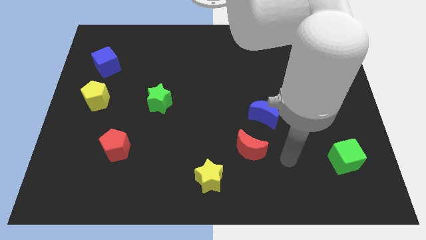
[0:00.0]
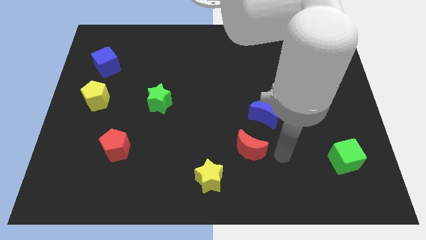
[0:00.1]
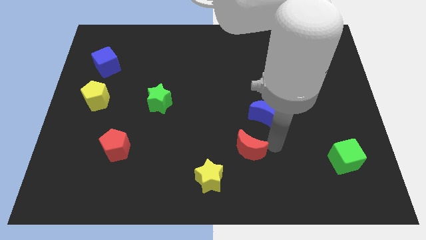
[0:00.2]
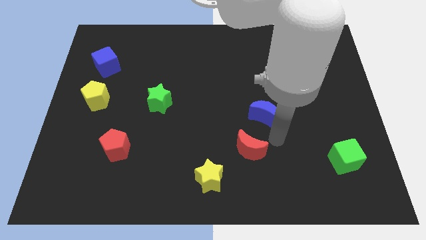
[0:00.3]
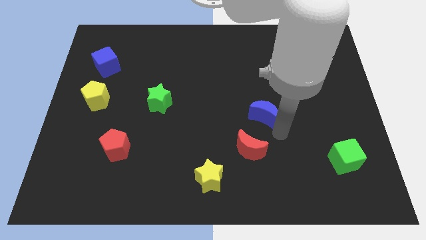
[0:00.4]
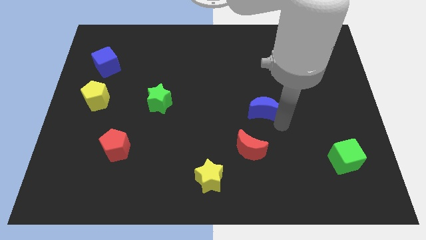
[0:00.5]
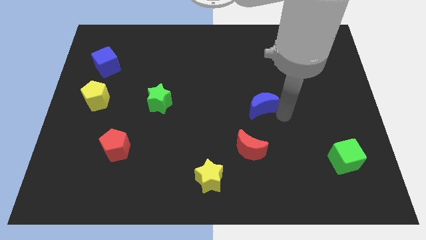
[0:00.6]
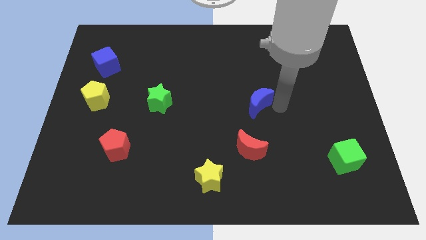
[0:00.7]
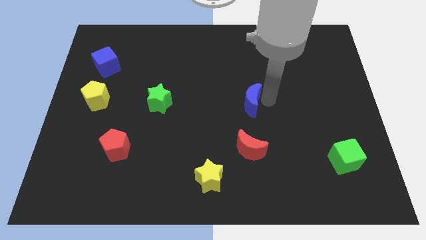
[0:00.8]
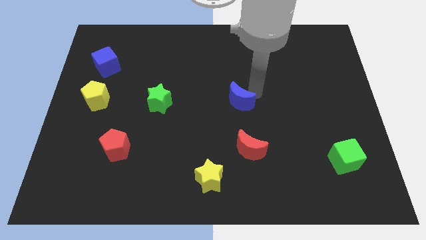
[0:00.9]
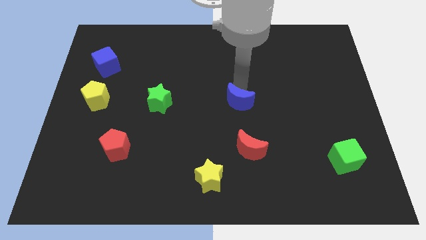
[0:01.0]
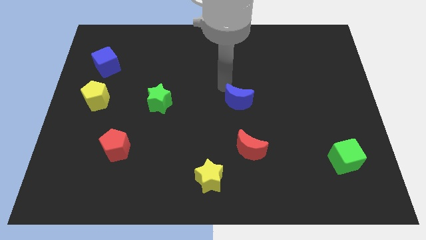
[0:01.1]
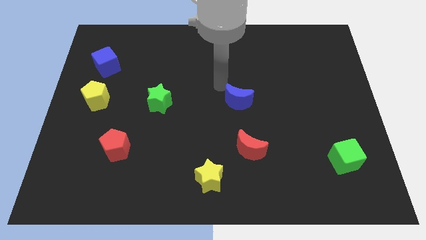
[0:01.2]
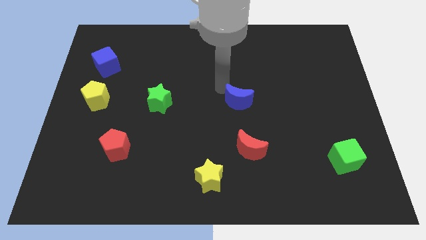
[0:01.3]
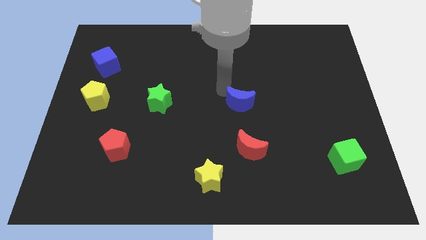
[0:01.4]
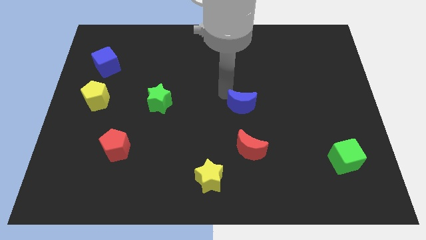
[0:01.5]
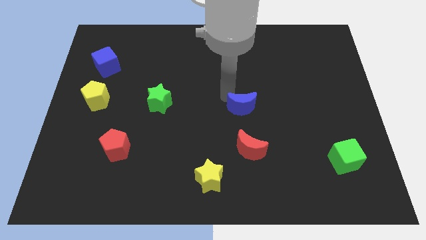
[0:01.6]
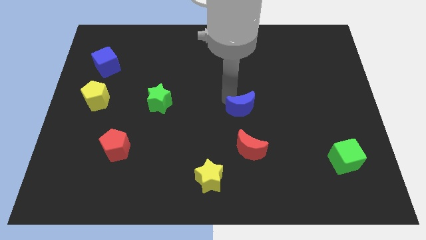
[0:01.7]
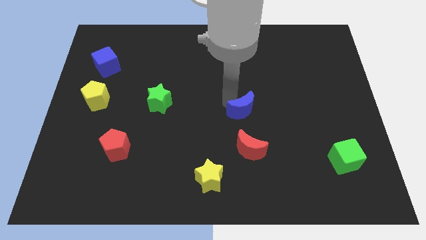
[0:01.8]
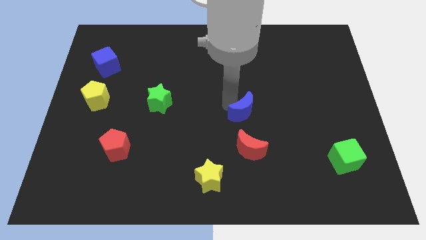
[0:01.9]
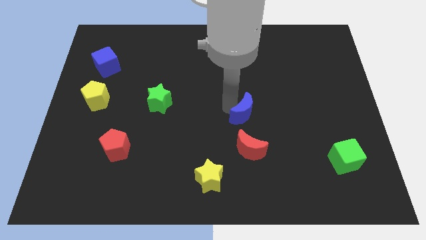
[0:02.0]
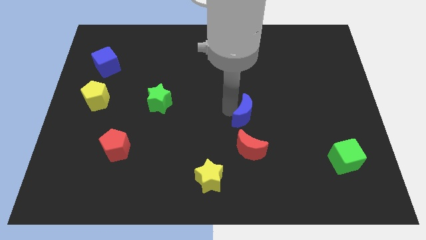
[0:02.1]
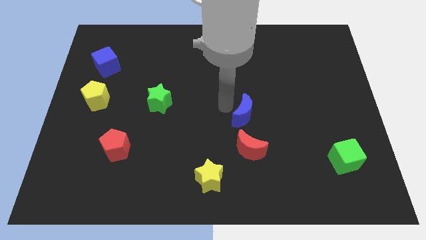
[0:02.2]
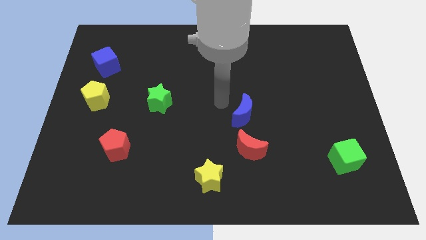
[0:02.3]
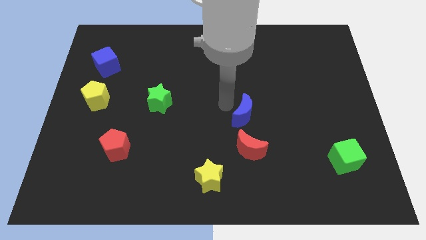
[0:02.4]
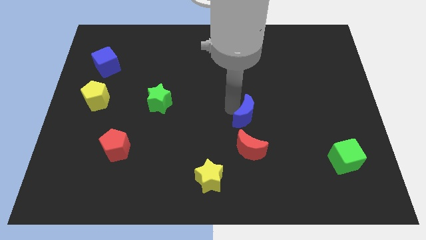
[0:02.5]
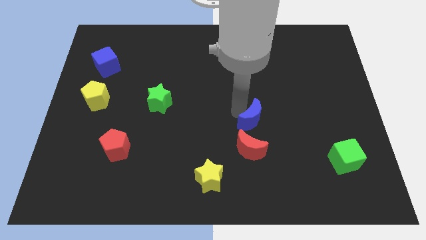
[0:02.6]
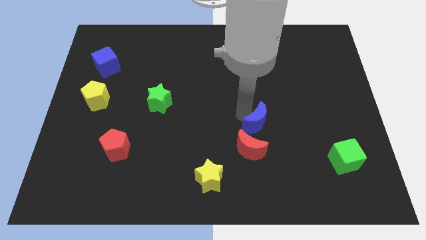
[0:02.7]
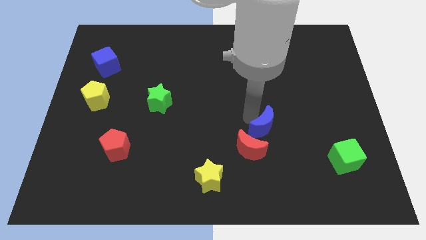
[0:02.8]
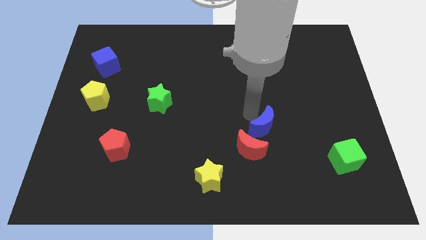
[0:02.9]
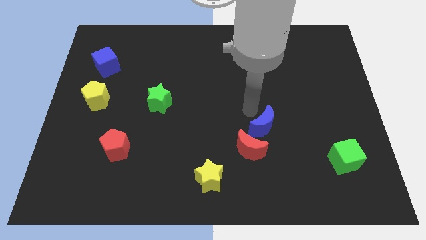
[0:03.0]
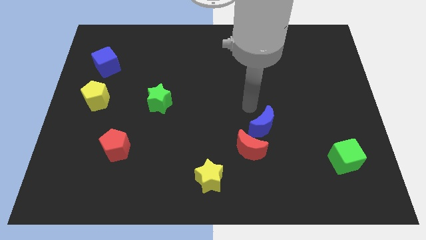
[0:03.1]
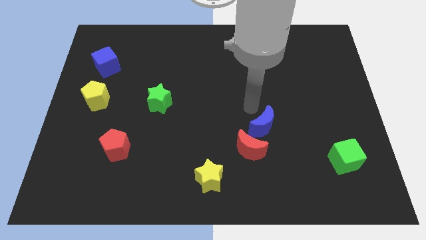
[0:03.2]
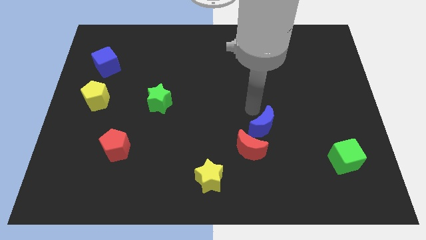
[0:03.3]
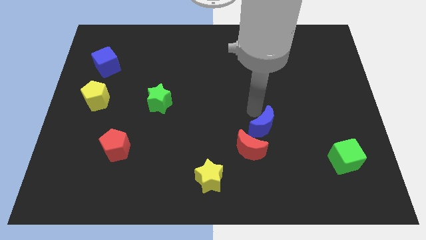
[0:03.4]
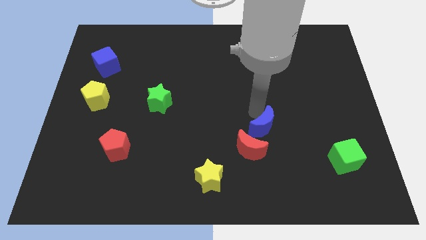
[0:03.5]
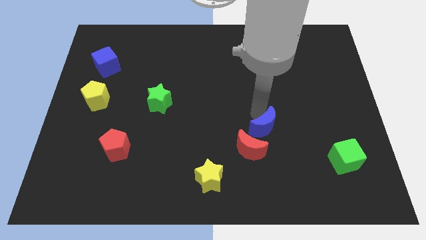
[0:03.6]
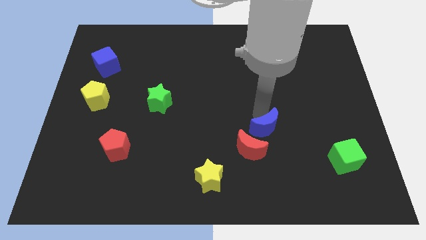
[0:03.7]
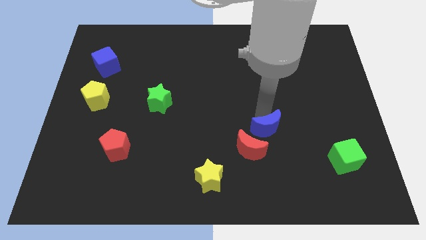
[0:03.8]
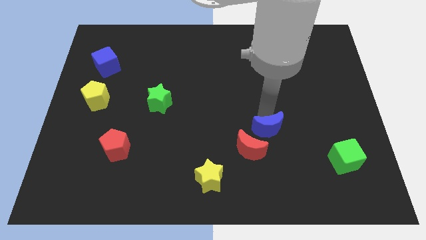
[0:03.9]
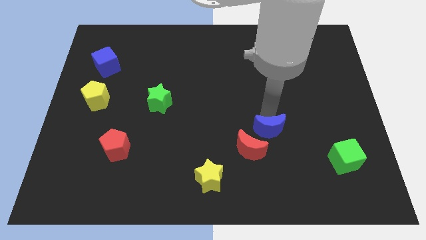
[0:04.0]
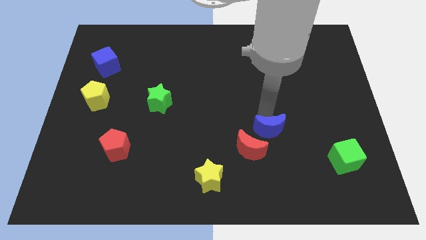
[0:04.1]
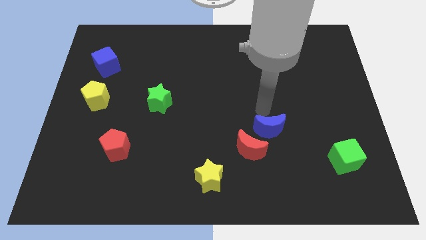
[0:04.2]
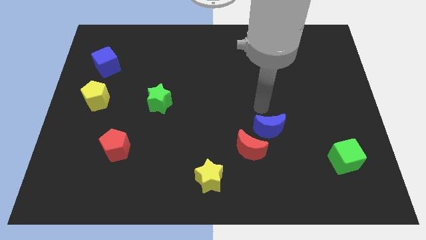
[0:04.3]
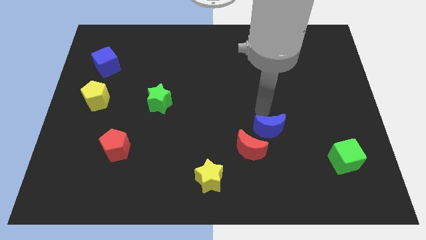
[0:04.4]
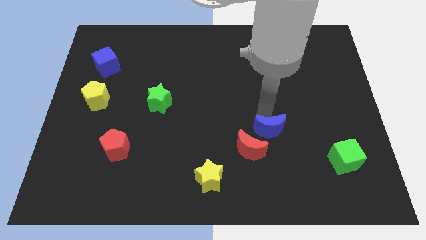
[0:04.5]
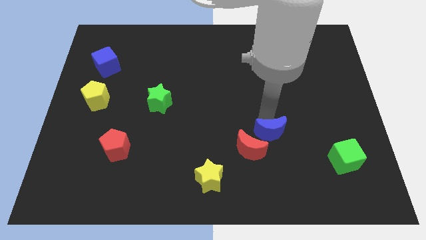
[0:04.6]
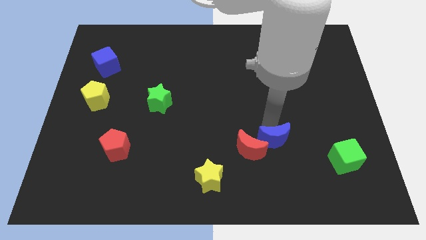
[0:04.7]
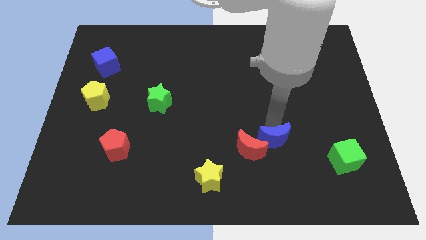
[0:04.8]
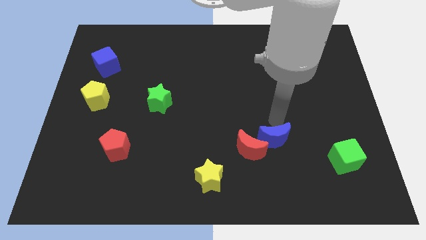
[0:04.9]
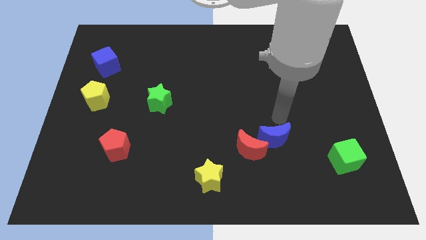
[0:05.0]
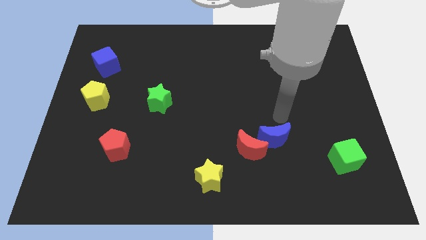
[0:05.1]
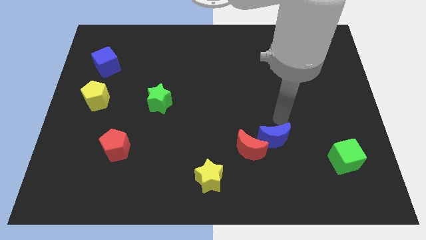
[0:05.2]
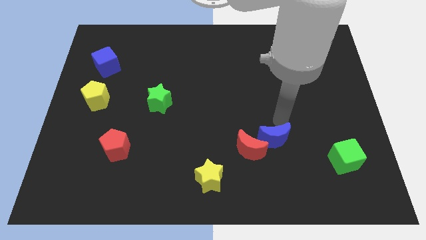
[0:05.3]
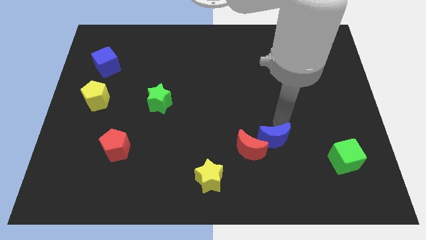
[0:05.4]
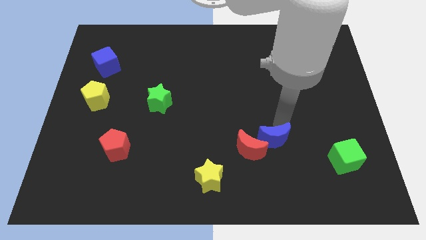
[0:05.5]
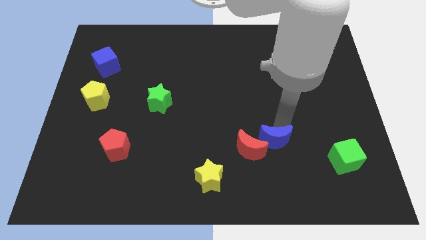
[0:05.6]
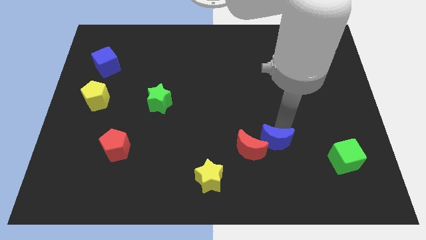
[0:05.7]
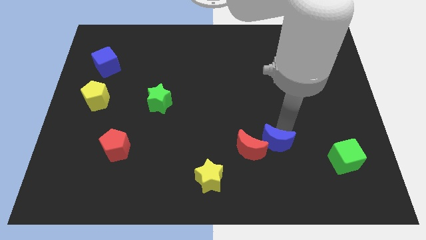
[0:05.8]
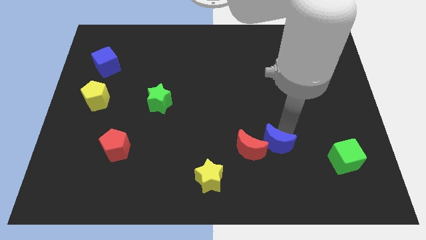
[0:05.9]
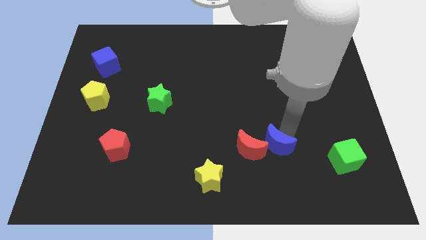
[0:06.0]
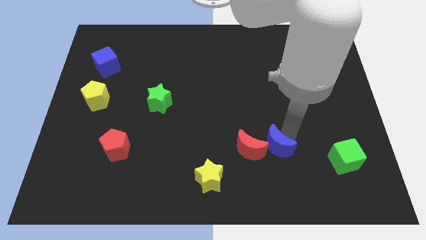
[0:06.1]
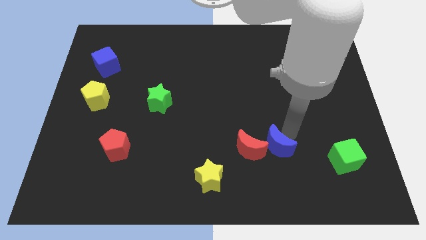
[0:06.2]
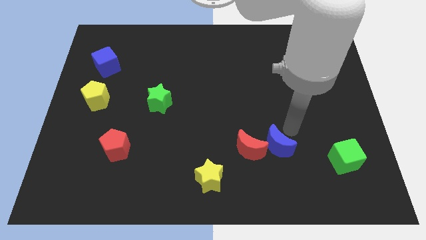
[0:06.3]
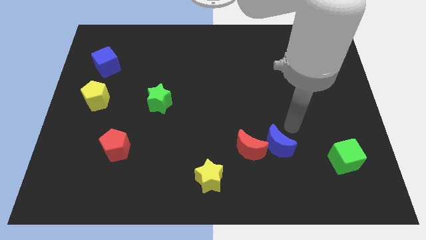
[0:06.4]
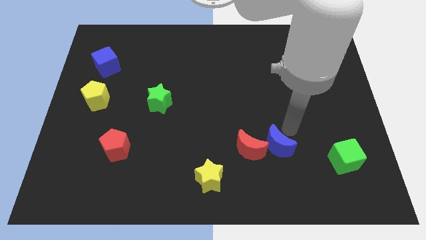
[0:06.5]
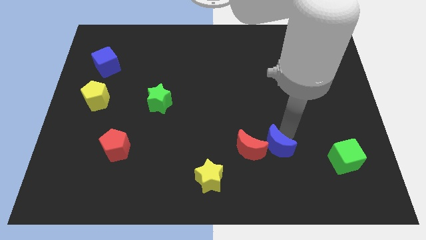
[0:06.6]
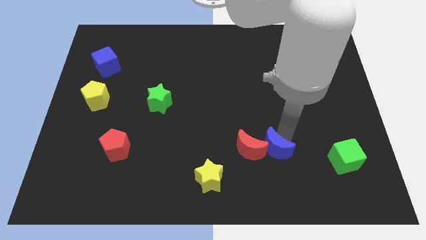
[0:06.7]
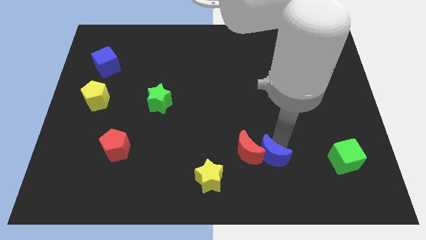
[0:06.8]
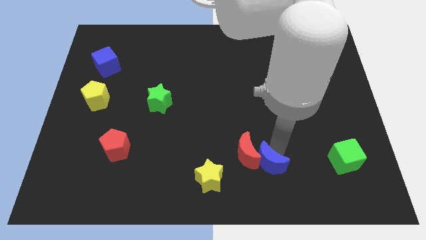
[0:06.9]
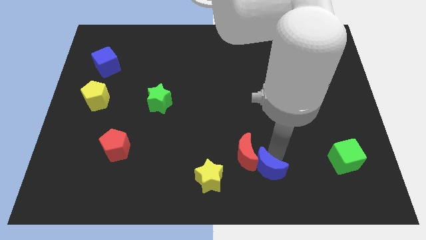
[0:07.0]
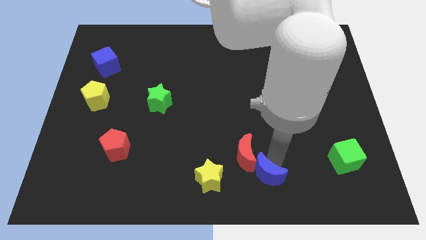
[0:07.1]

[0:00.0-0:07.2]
move the blue moon to the bottom side
